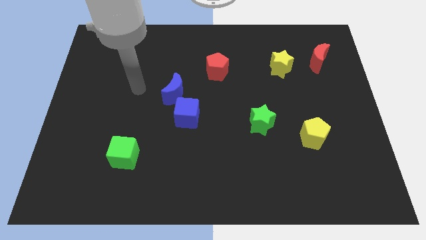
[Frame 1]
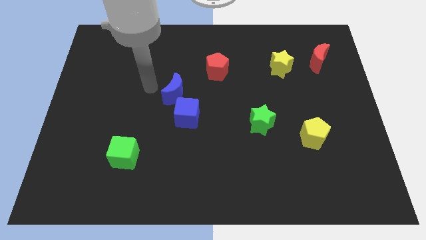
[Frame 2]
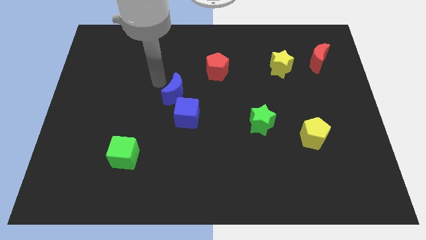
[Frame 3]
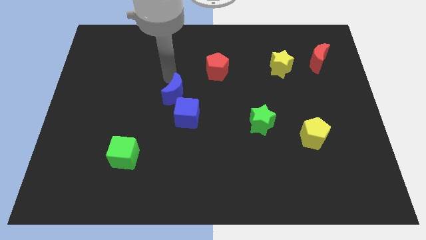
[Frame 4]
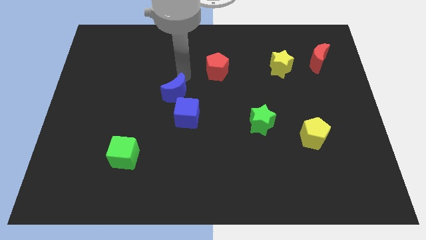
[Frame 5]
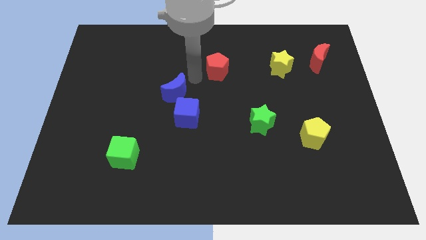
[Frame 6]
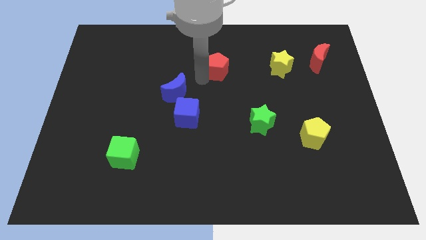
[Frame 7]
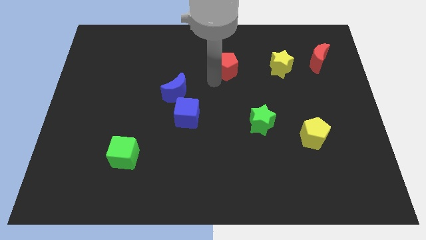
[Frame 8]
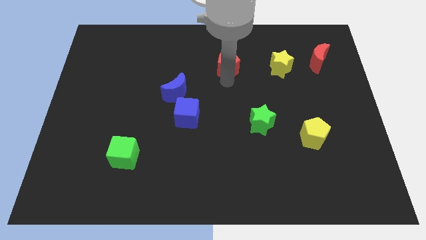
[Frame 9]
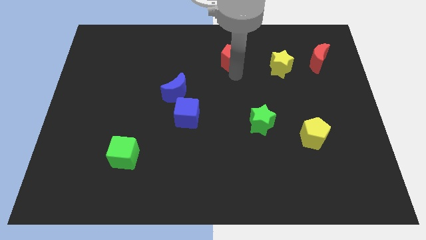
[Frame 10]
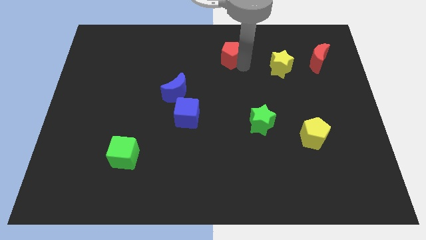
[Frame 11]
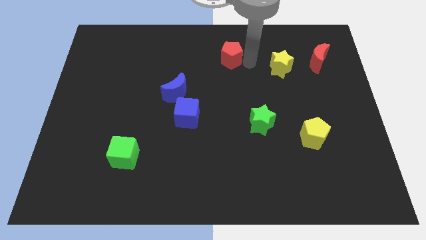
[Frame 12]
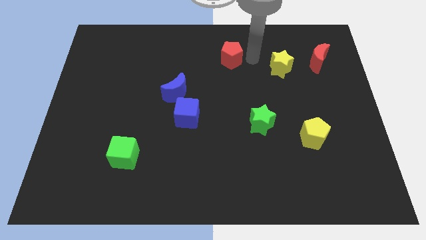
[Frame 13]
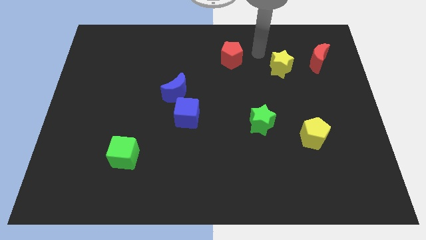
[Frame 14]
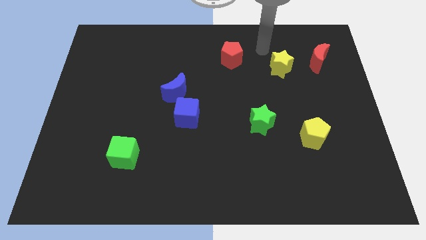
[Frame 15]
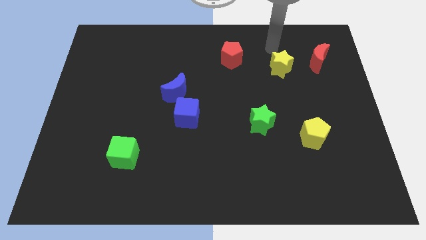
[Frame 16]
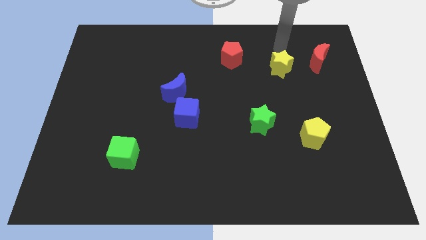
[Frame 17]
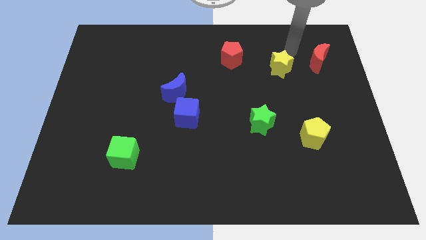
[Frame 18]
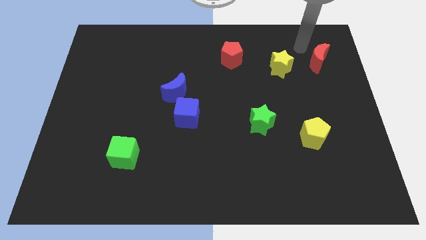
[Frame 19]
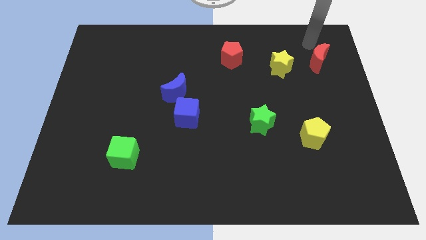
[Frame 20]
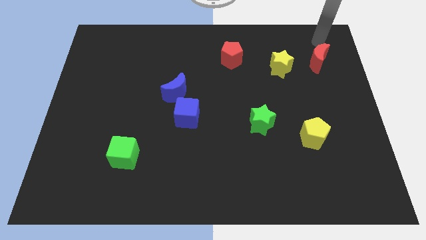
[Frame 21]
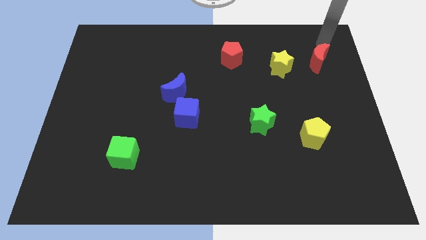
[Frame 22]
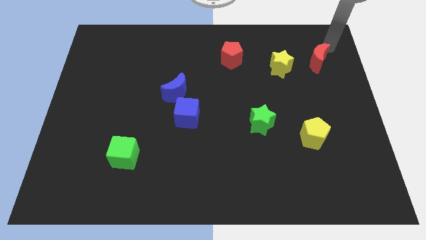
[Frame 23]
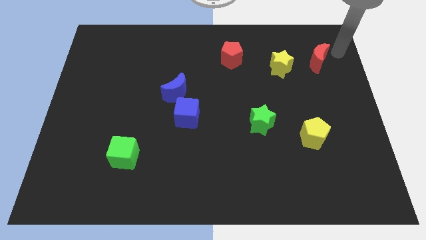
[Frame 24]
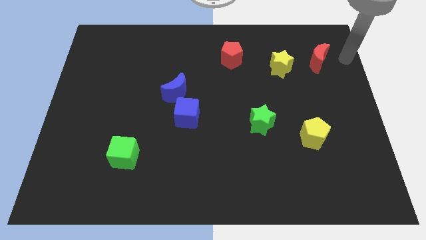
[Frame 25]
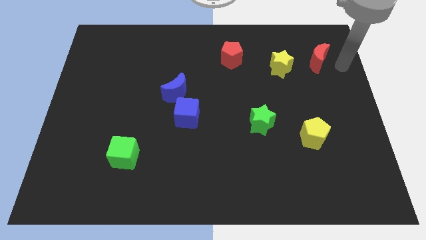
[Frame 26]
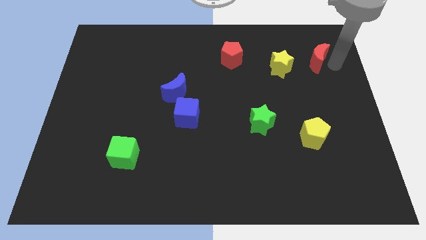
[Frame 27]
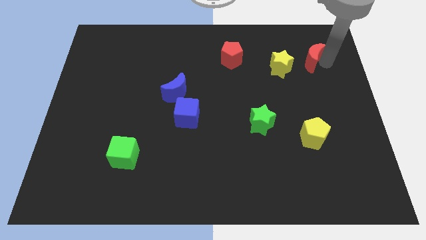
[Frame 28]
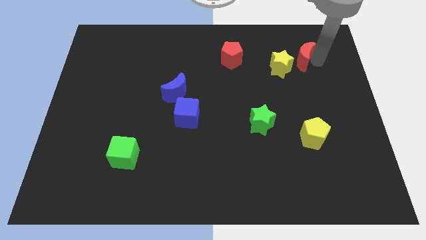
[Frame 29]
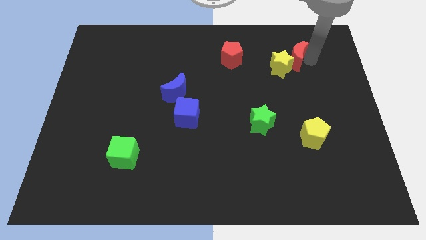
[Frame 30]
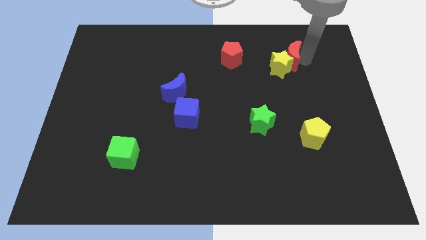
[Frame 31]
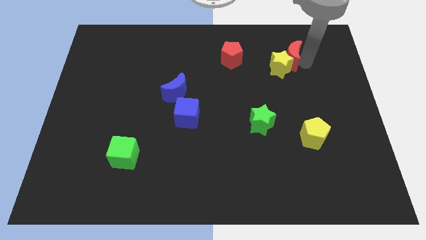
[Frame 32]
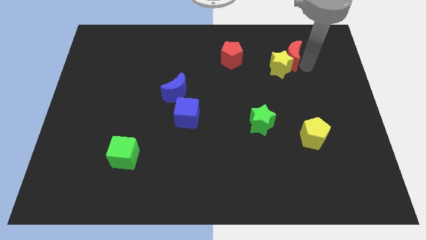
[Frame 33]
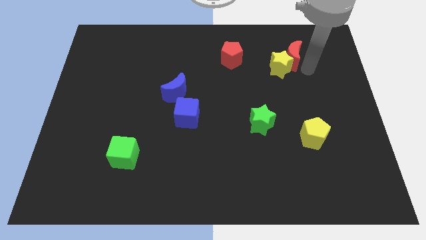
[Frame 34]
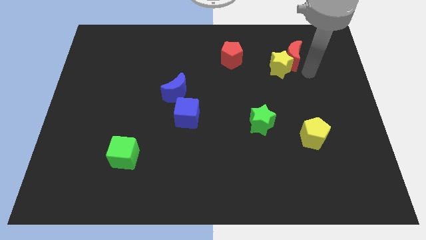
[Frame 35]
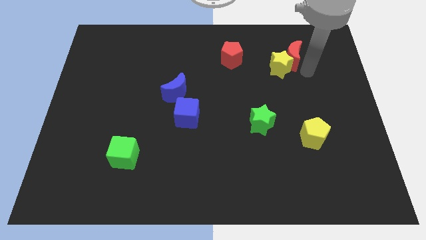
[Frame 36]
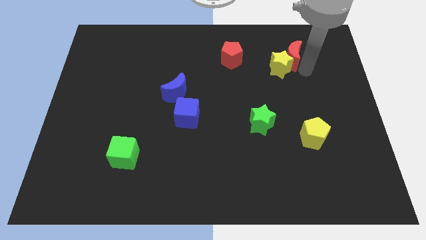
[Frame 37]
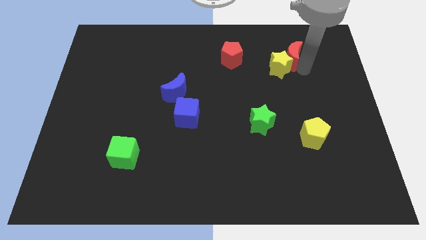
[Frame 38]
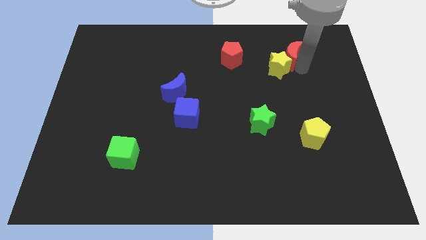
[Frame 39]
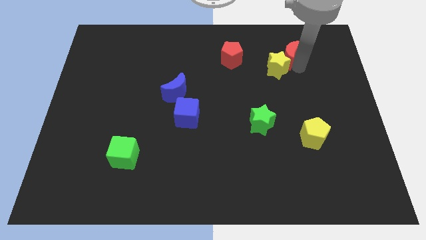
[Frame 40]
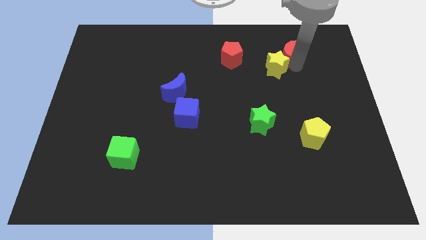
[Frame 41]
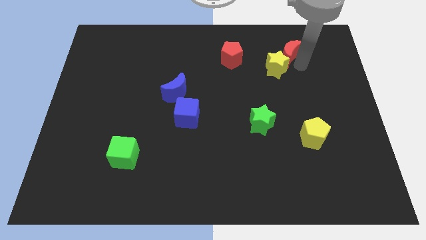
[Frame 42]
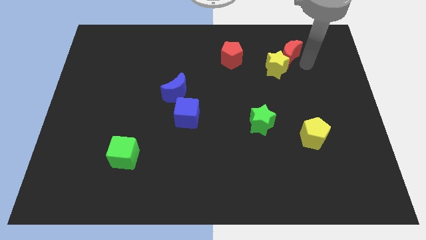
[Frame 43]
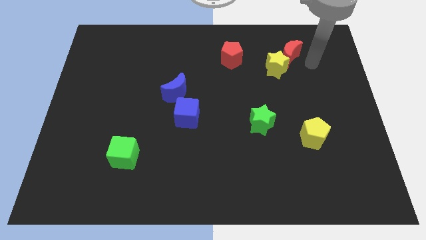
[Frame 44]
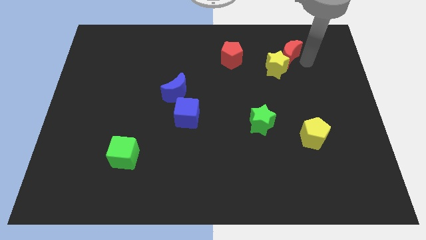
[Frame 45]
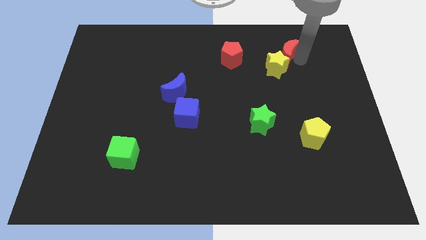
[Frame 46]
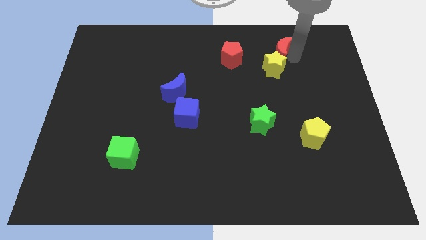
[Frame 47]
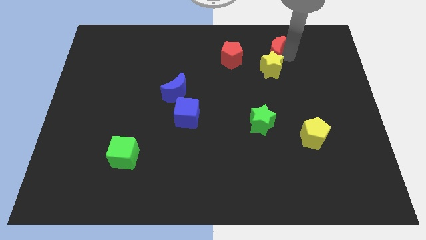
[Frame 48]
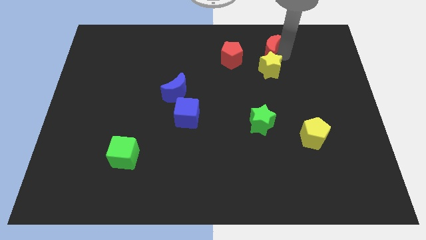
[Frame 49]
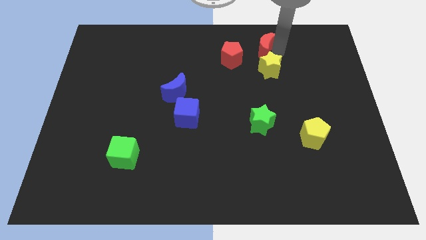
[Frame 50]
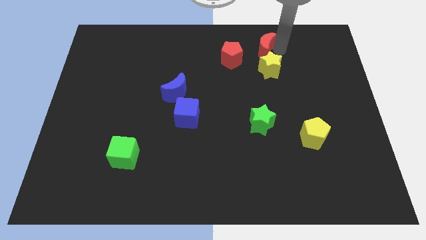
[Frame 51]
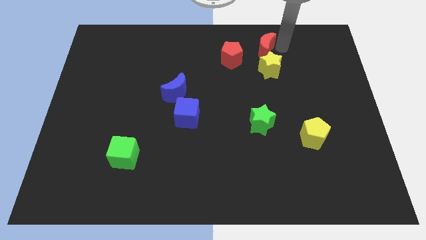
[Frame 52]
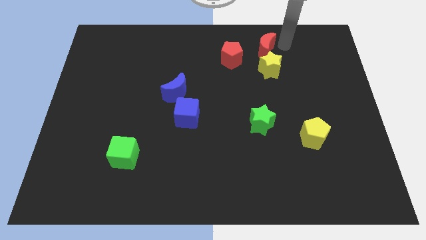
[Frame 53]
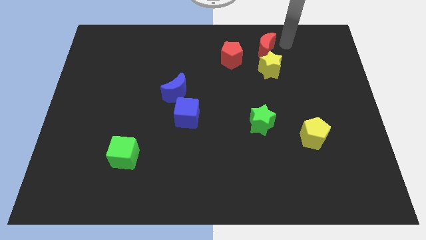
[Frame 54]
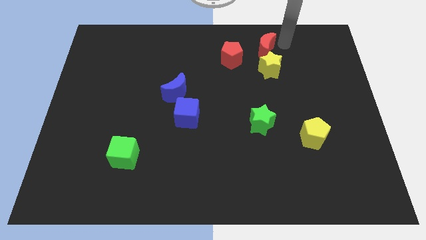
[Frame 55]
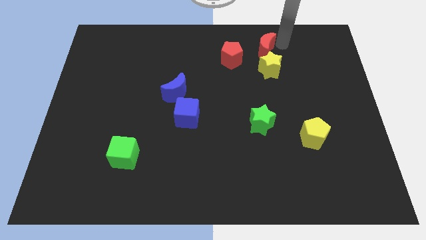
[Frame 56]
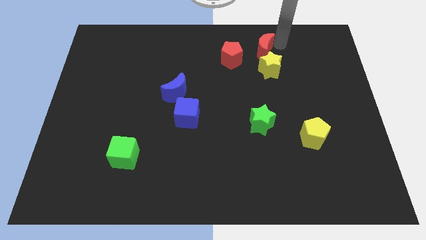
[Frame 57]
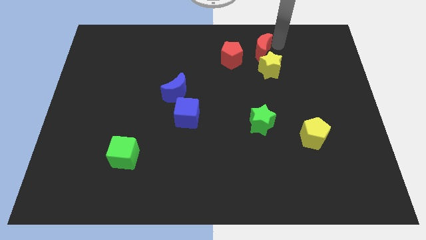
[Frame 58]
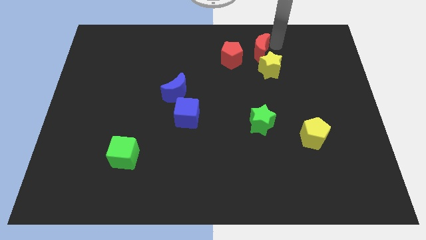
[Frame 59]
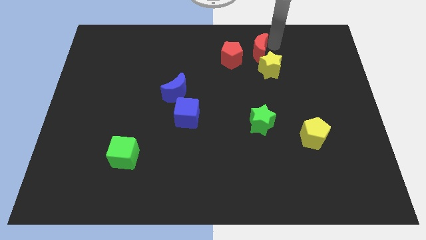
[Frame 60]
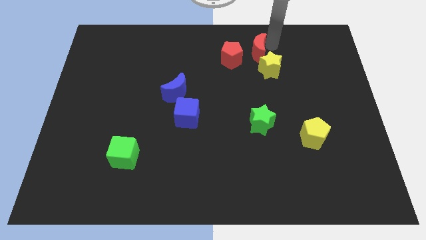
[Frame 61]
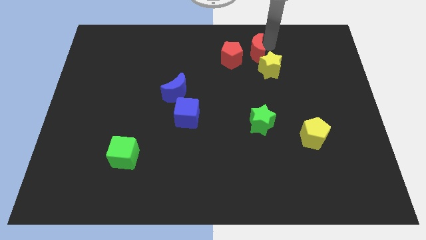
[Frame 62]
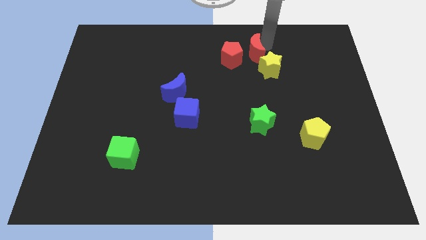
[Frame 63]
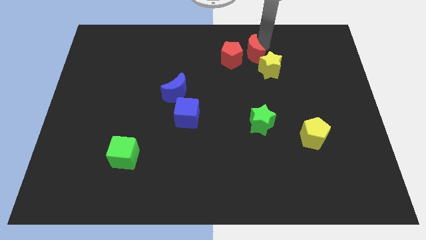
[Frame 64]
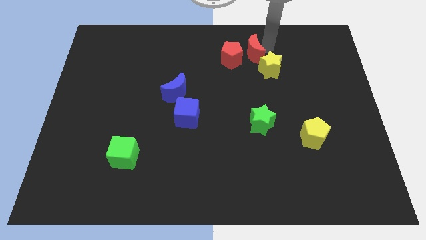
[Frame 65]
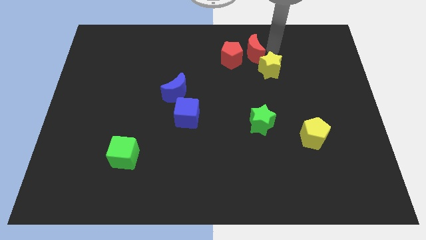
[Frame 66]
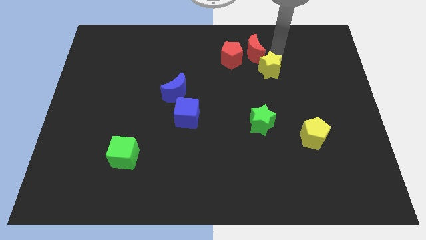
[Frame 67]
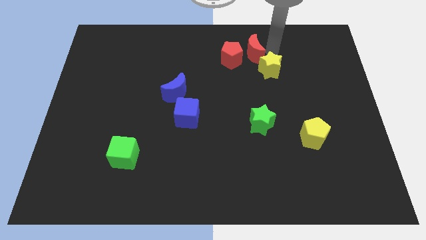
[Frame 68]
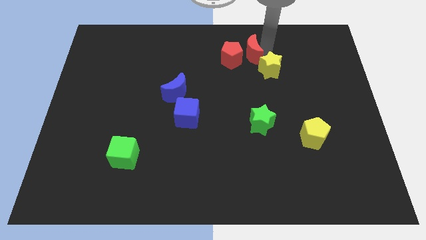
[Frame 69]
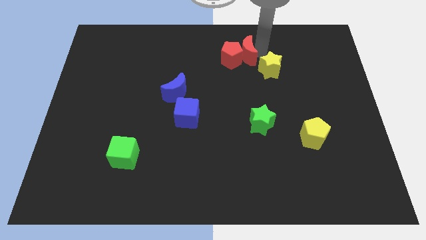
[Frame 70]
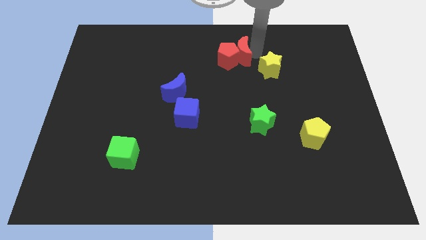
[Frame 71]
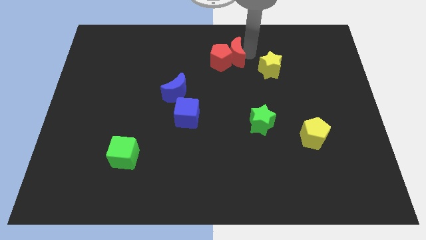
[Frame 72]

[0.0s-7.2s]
push the red moon left

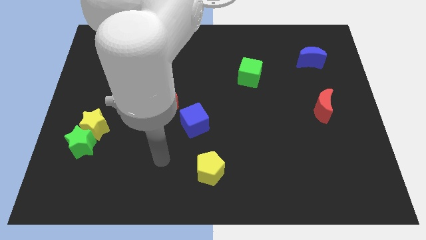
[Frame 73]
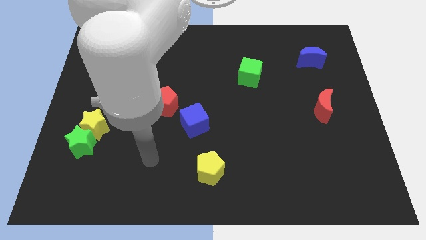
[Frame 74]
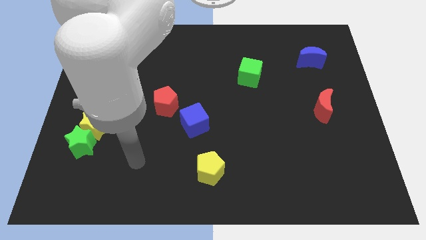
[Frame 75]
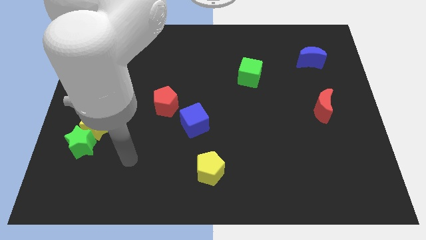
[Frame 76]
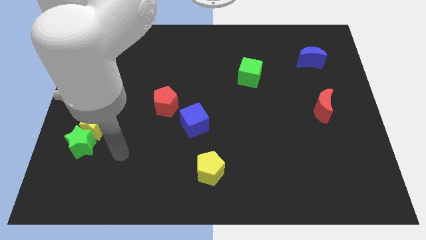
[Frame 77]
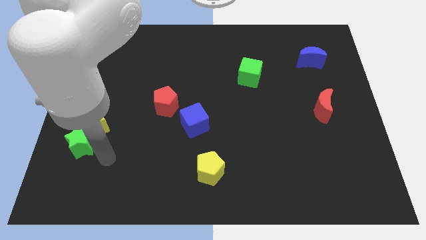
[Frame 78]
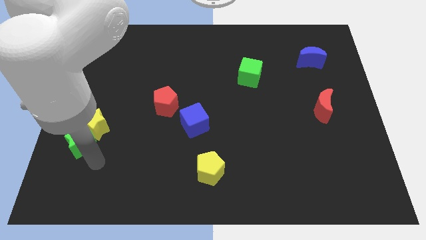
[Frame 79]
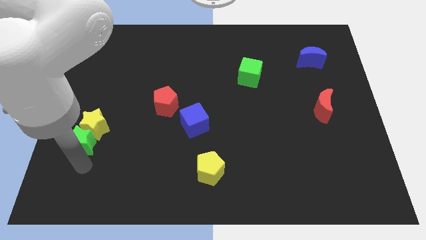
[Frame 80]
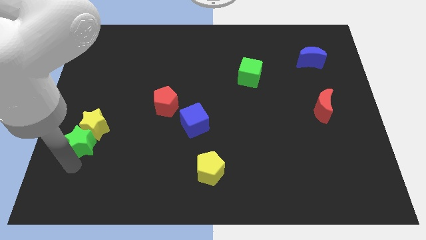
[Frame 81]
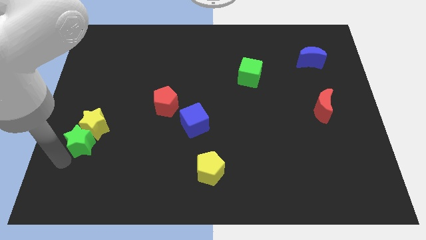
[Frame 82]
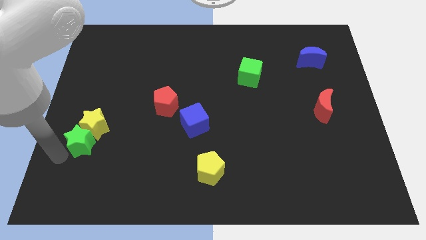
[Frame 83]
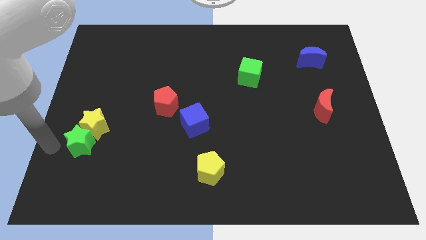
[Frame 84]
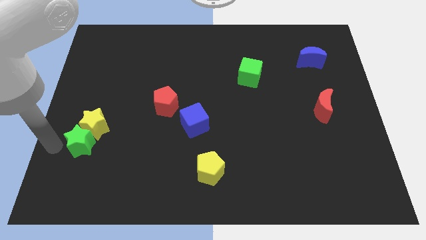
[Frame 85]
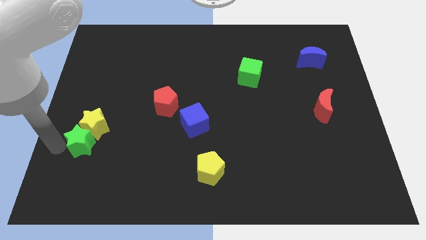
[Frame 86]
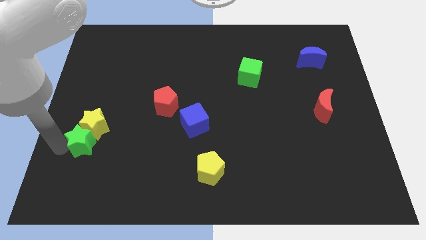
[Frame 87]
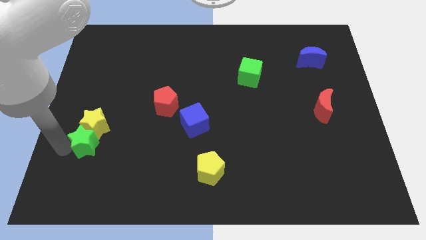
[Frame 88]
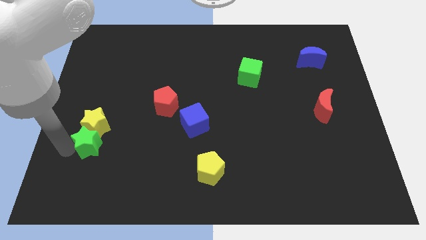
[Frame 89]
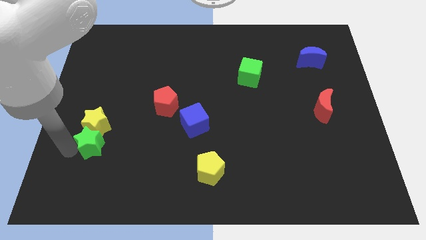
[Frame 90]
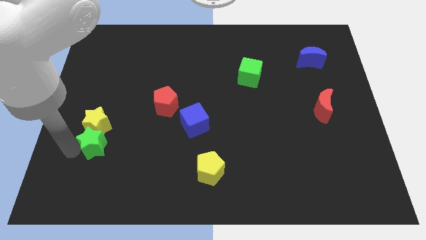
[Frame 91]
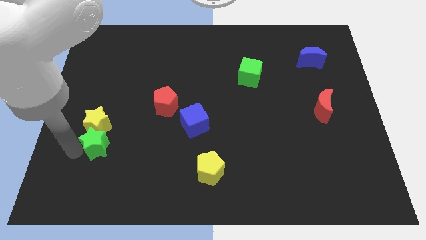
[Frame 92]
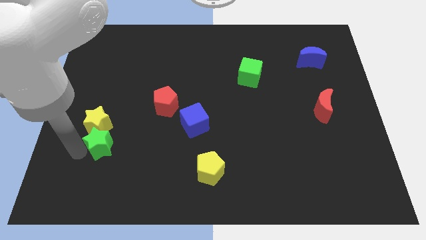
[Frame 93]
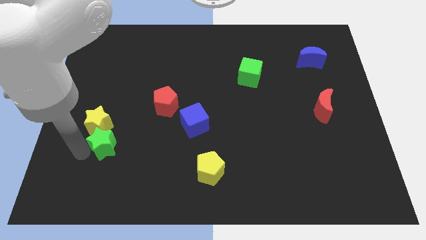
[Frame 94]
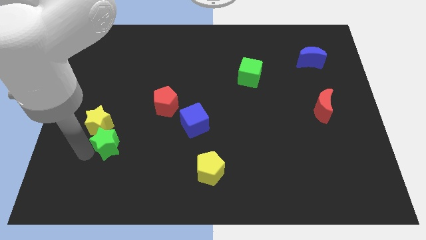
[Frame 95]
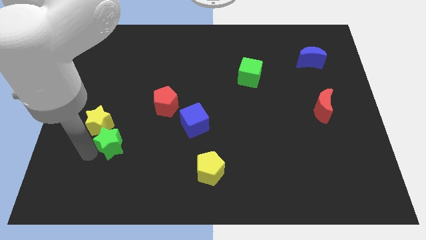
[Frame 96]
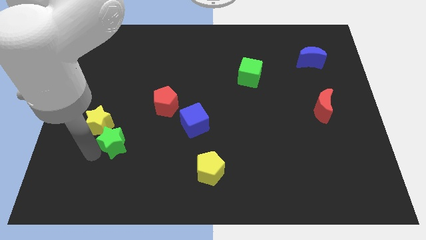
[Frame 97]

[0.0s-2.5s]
move the green star right a little bit
